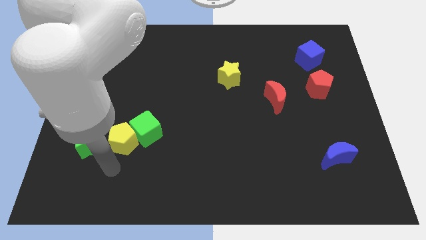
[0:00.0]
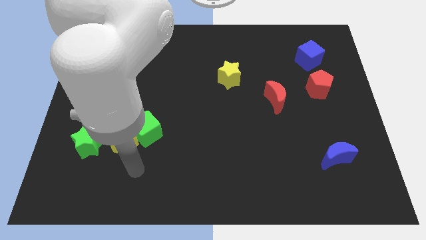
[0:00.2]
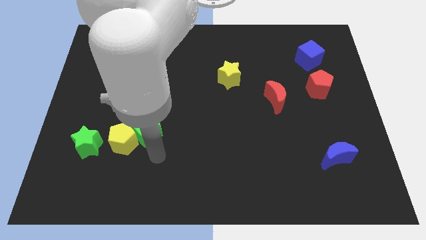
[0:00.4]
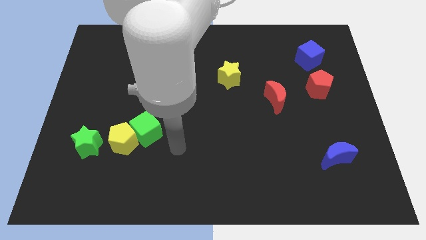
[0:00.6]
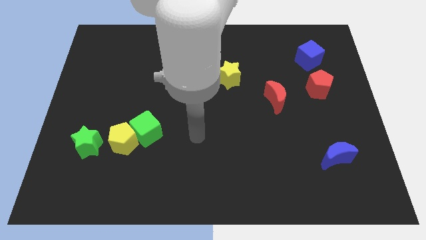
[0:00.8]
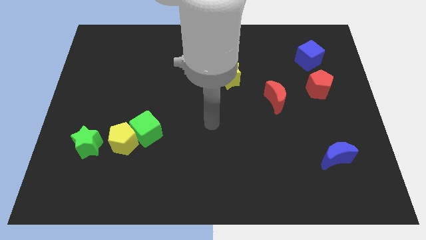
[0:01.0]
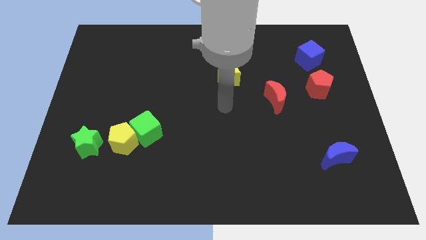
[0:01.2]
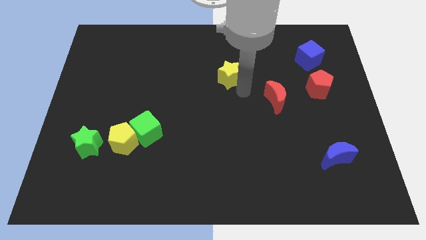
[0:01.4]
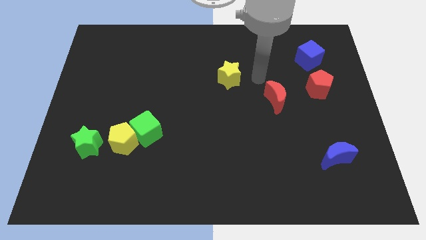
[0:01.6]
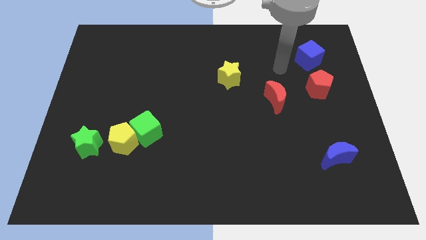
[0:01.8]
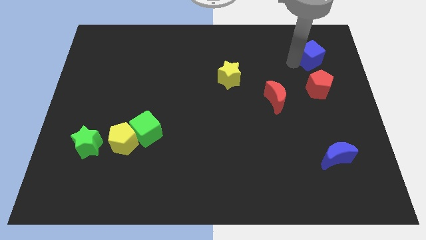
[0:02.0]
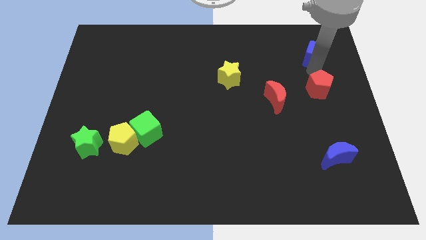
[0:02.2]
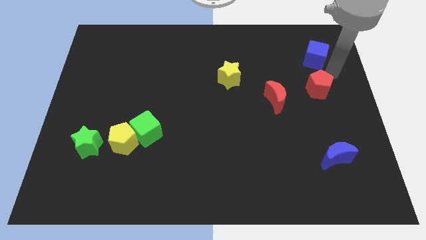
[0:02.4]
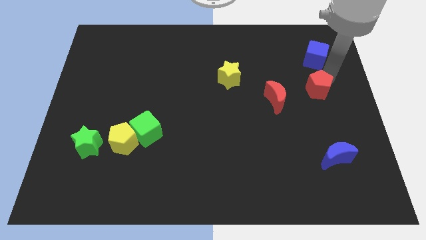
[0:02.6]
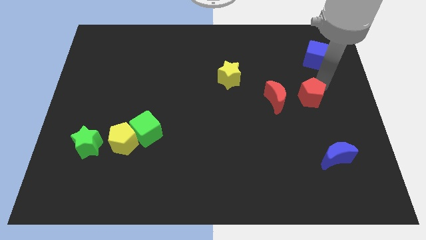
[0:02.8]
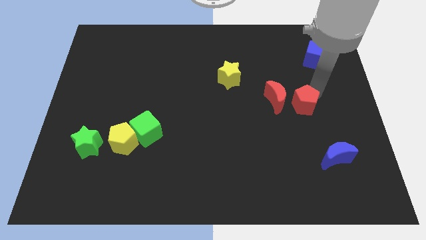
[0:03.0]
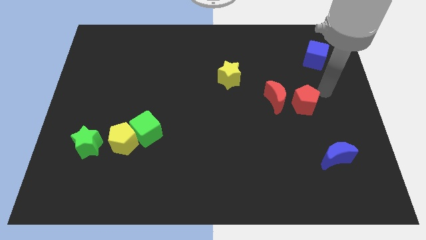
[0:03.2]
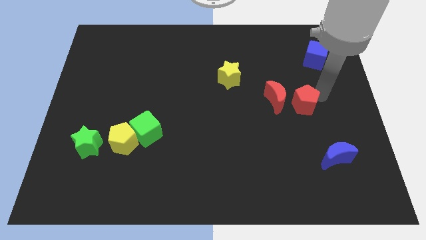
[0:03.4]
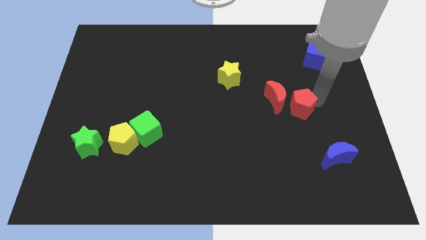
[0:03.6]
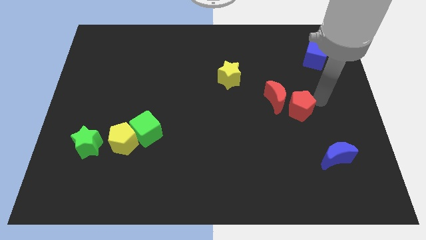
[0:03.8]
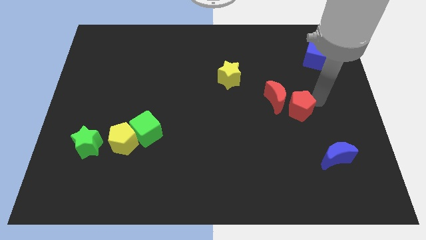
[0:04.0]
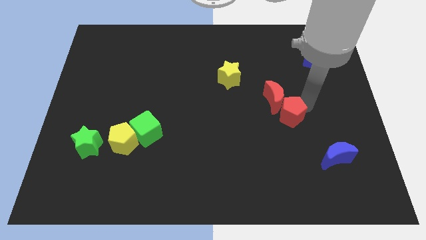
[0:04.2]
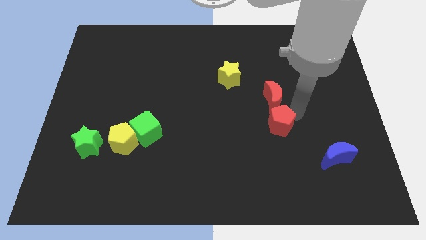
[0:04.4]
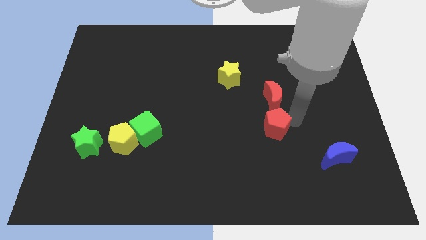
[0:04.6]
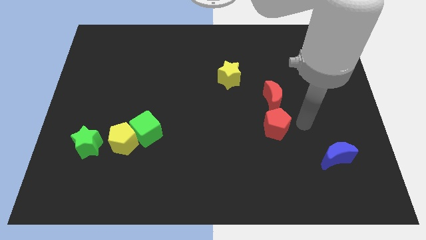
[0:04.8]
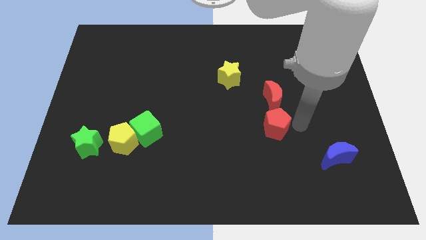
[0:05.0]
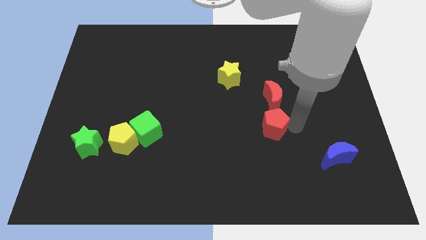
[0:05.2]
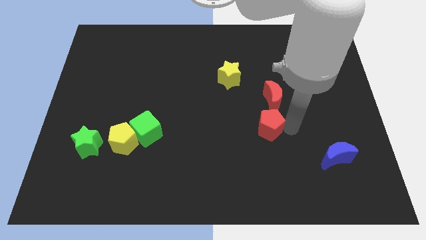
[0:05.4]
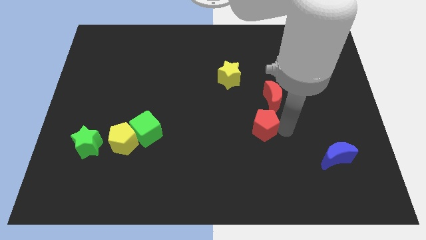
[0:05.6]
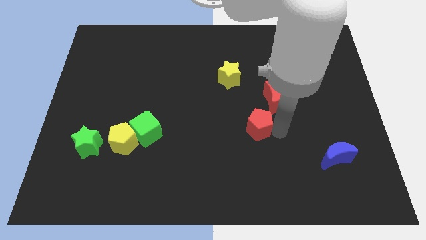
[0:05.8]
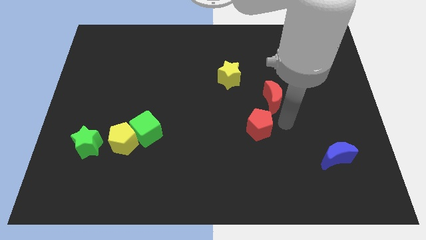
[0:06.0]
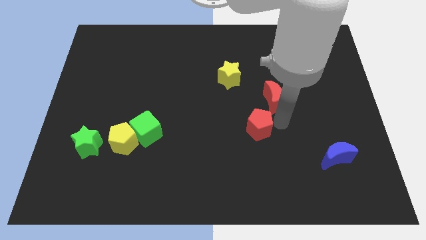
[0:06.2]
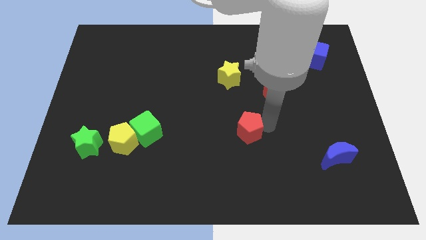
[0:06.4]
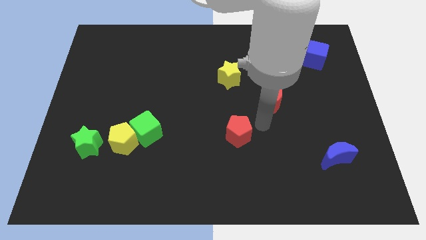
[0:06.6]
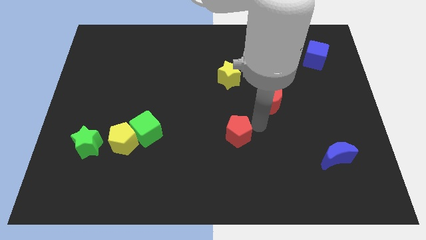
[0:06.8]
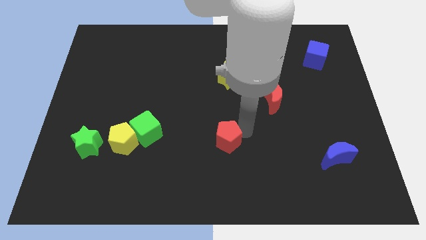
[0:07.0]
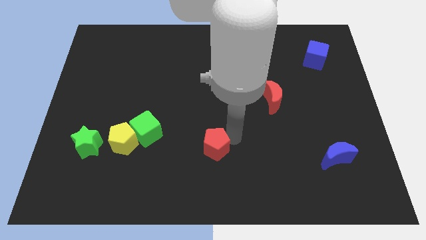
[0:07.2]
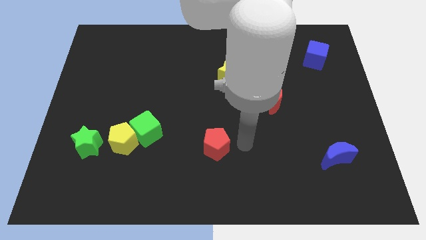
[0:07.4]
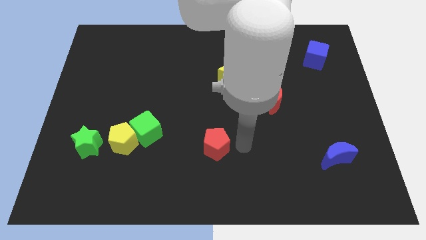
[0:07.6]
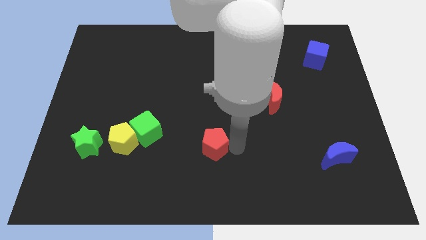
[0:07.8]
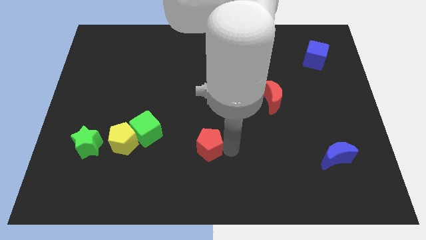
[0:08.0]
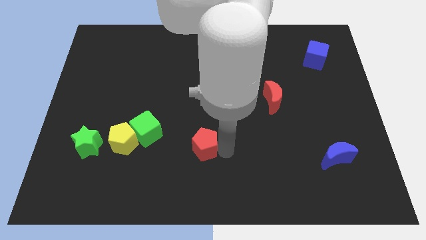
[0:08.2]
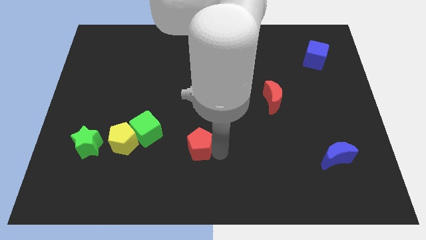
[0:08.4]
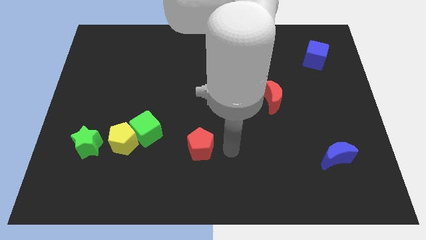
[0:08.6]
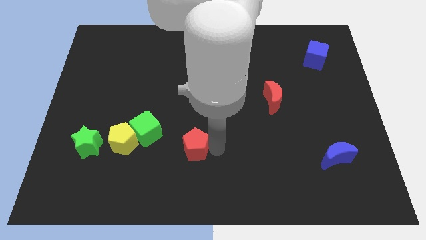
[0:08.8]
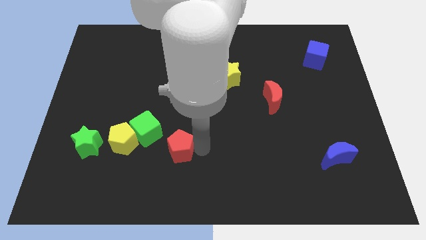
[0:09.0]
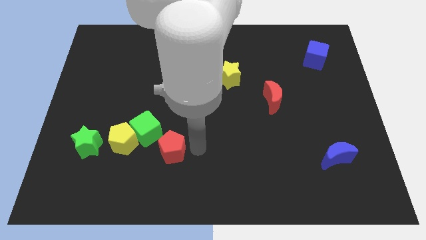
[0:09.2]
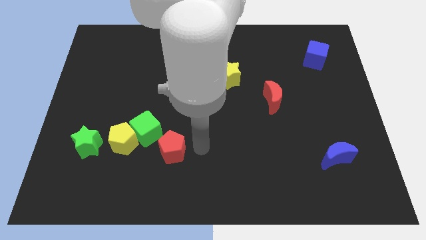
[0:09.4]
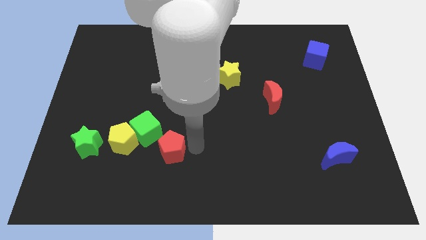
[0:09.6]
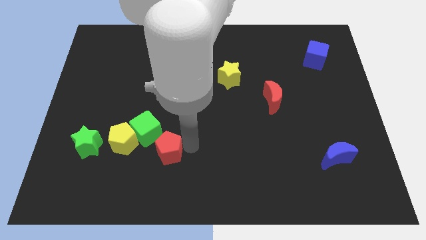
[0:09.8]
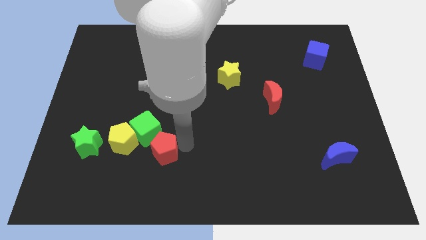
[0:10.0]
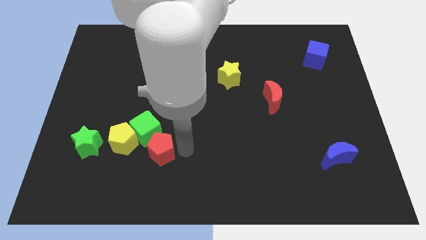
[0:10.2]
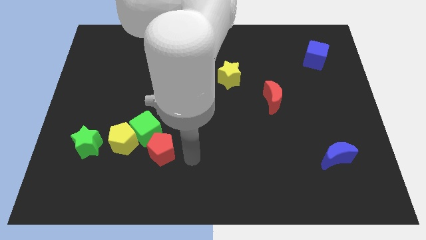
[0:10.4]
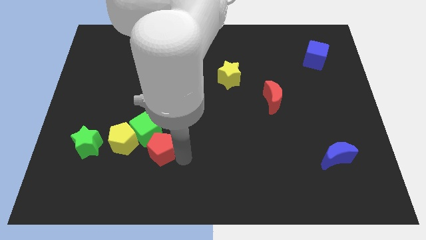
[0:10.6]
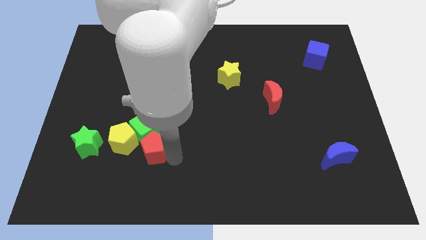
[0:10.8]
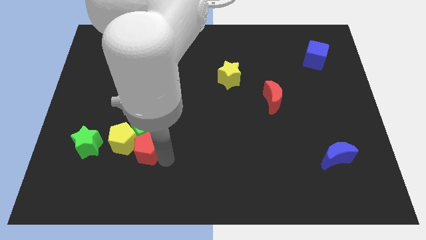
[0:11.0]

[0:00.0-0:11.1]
put the red pentagon towards the yellow pentagon

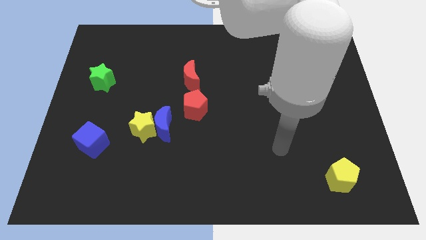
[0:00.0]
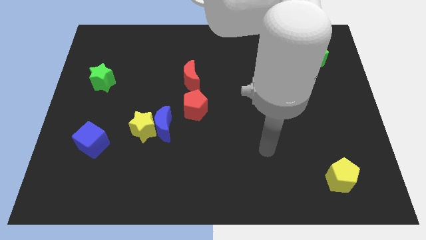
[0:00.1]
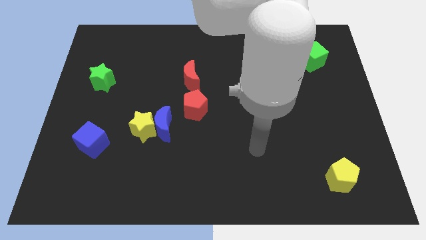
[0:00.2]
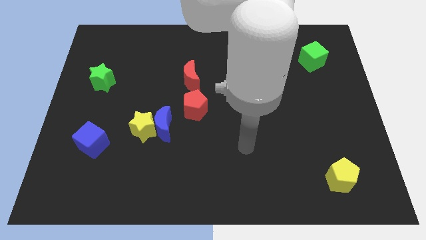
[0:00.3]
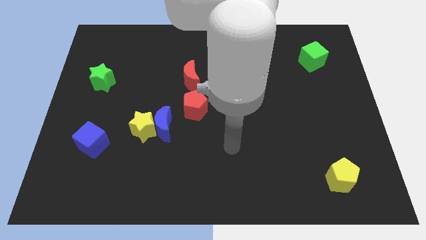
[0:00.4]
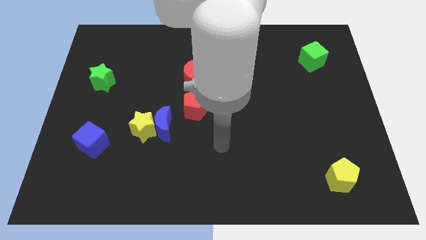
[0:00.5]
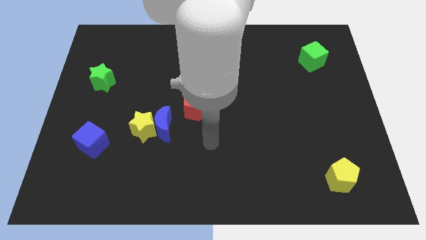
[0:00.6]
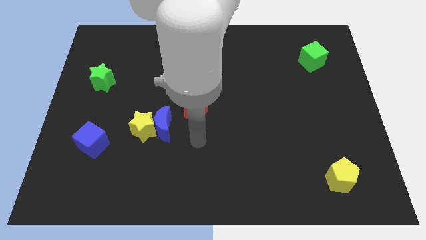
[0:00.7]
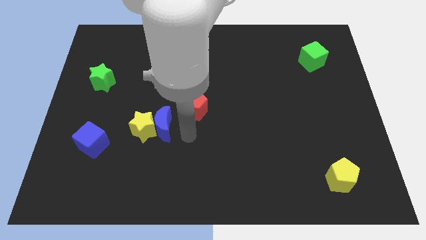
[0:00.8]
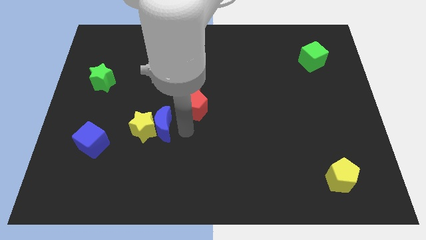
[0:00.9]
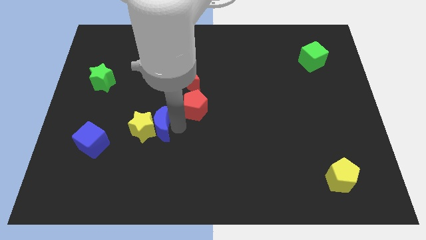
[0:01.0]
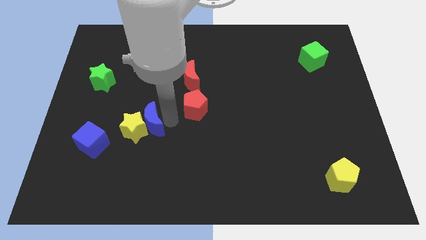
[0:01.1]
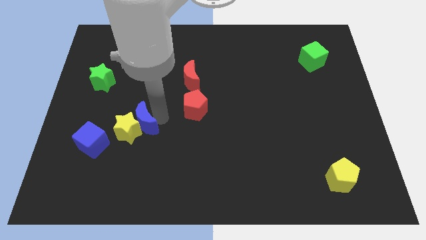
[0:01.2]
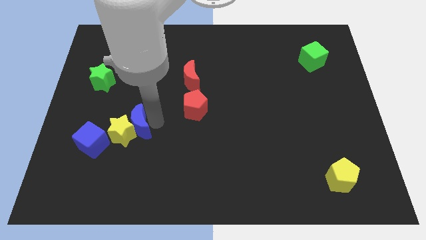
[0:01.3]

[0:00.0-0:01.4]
slide the yellow star to the blue cube
